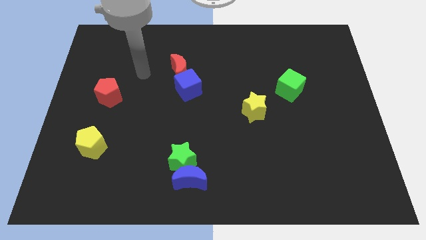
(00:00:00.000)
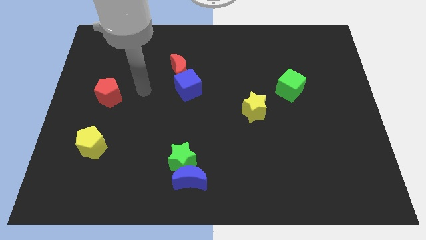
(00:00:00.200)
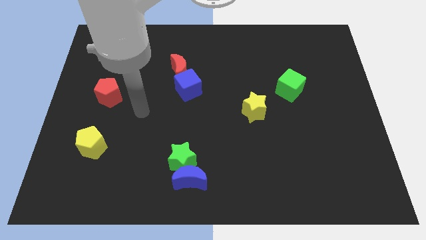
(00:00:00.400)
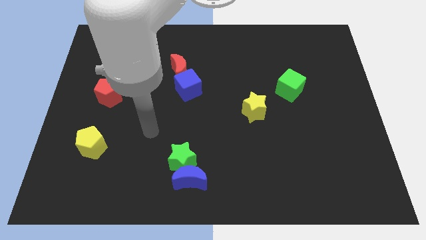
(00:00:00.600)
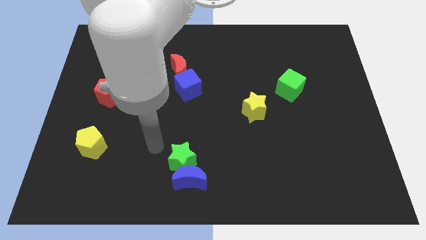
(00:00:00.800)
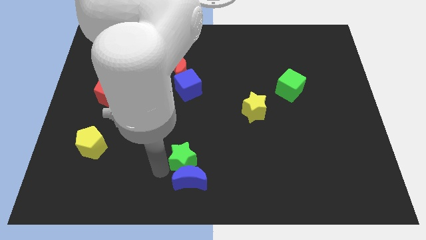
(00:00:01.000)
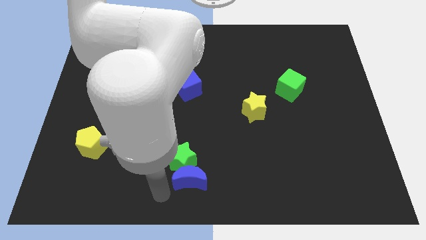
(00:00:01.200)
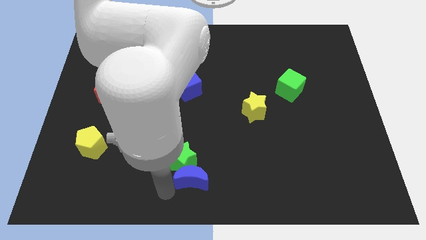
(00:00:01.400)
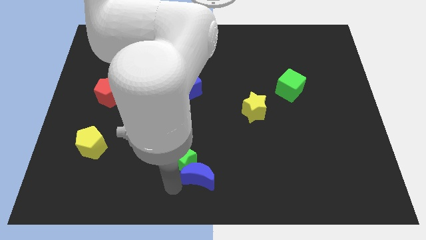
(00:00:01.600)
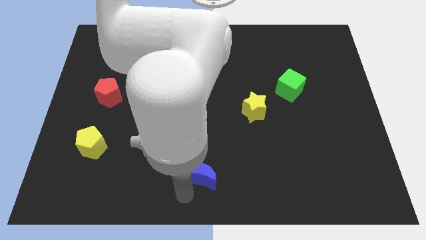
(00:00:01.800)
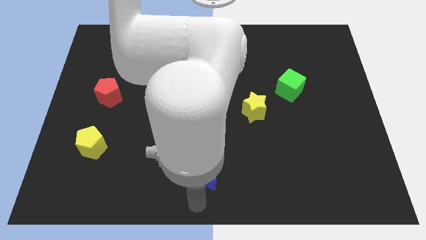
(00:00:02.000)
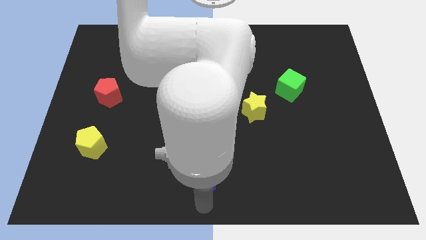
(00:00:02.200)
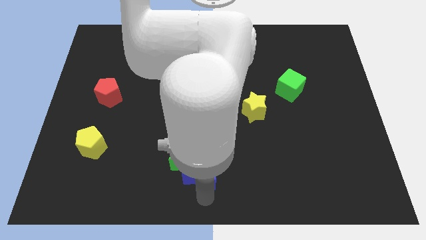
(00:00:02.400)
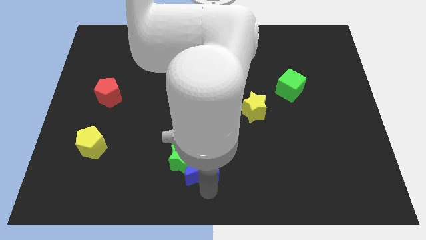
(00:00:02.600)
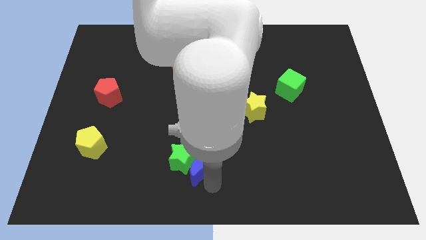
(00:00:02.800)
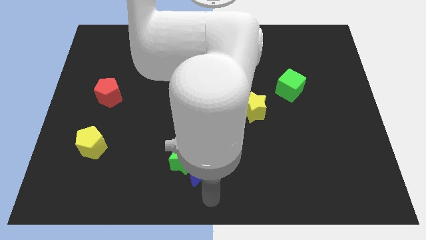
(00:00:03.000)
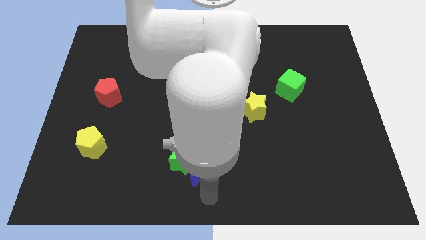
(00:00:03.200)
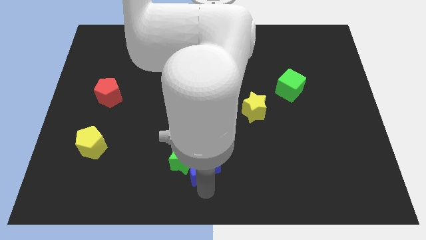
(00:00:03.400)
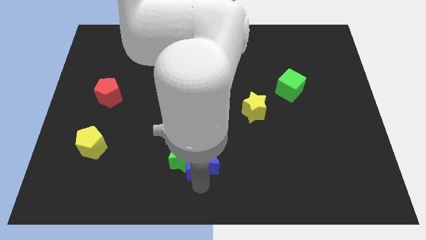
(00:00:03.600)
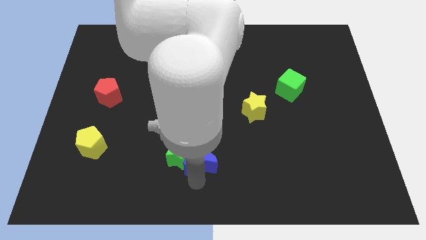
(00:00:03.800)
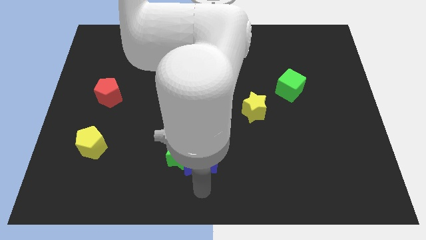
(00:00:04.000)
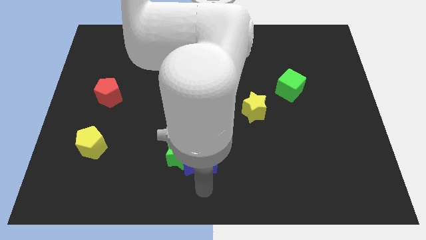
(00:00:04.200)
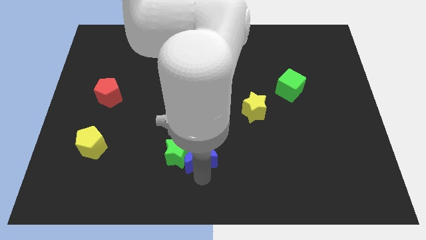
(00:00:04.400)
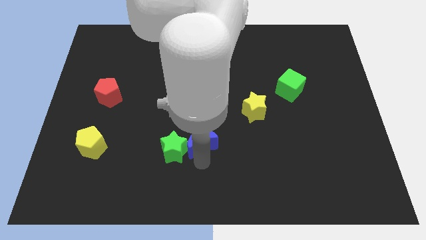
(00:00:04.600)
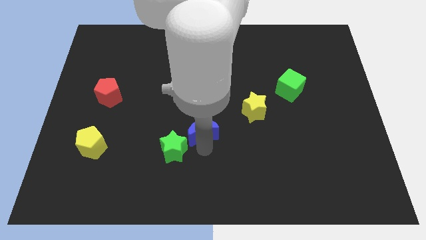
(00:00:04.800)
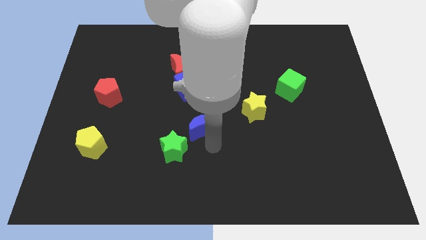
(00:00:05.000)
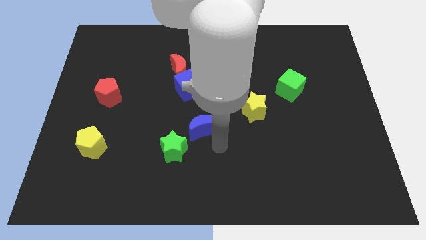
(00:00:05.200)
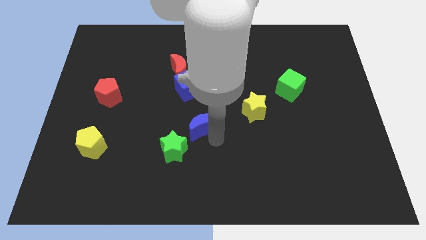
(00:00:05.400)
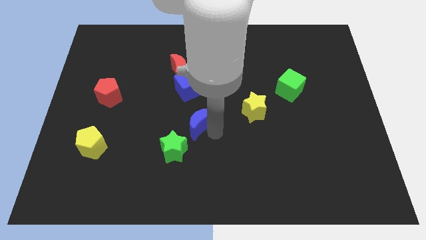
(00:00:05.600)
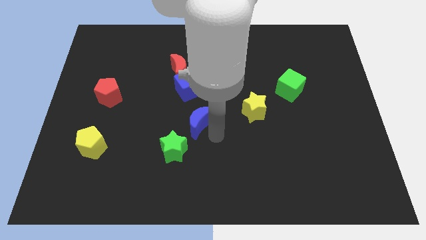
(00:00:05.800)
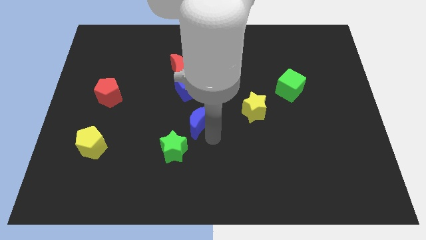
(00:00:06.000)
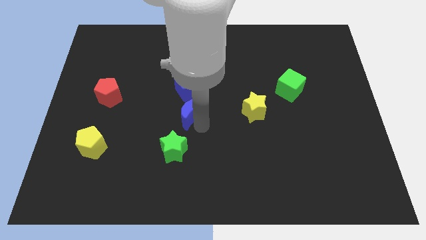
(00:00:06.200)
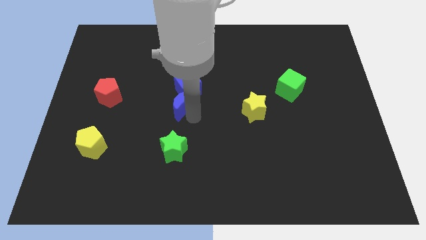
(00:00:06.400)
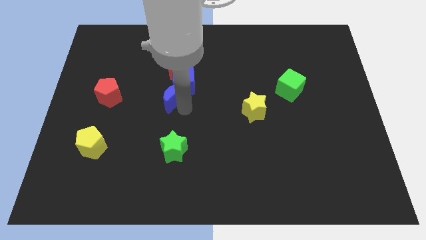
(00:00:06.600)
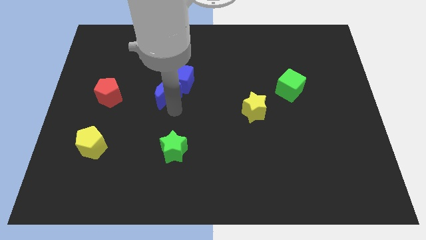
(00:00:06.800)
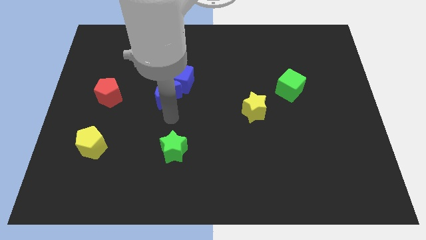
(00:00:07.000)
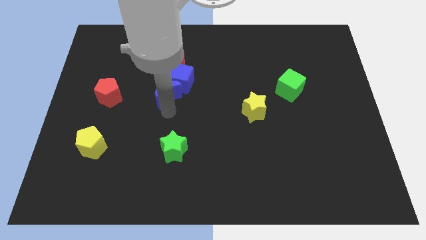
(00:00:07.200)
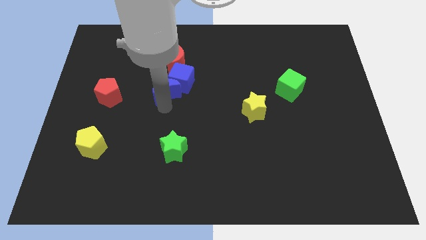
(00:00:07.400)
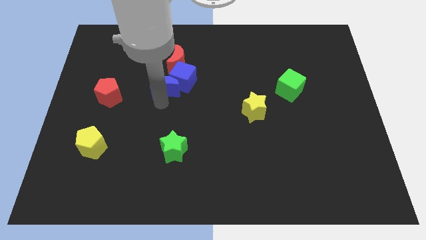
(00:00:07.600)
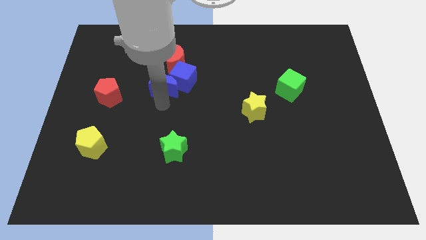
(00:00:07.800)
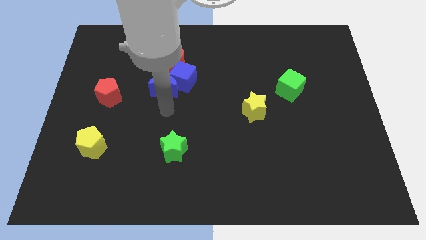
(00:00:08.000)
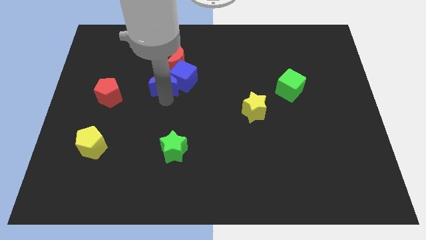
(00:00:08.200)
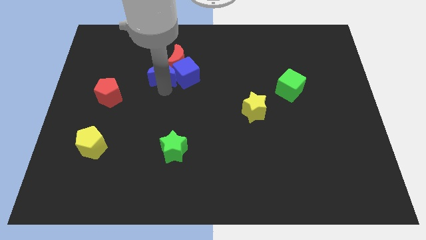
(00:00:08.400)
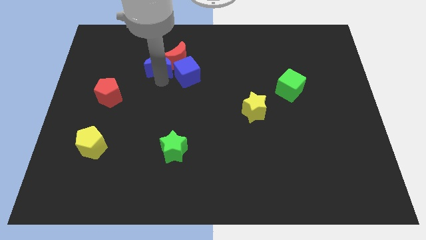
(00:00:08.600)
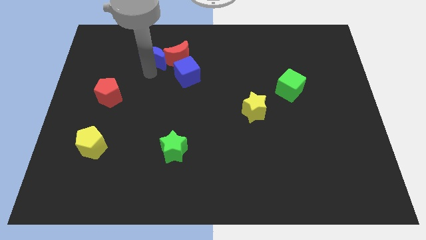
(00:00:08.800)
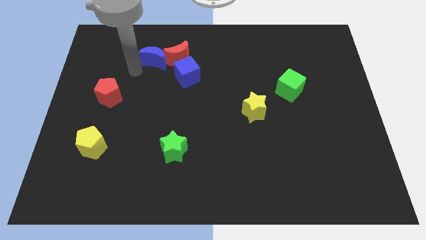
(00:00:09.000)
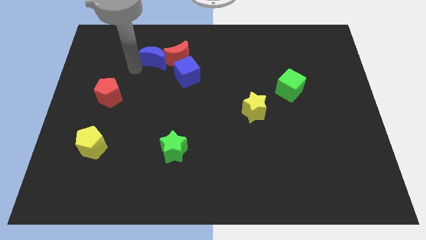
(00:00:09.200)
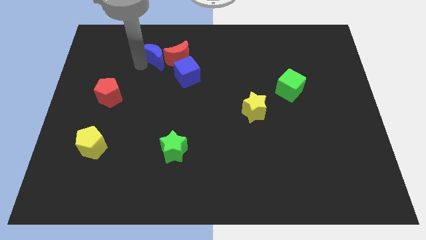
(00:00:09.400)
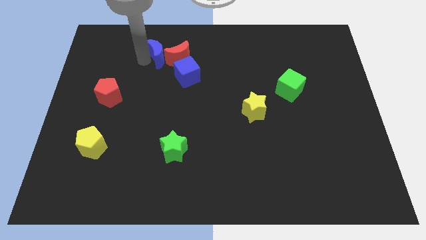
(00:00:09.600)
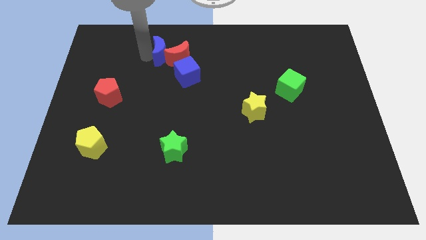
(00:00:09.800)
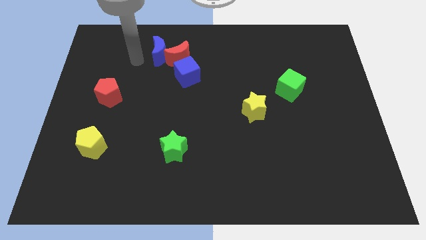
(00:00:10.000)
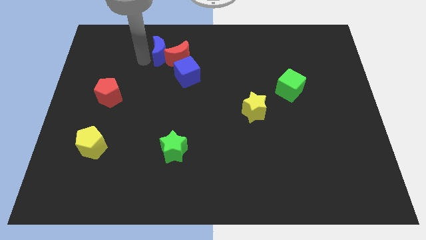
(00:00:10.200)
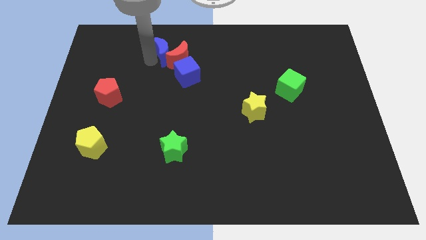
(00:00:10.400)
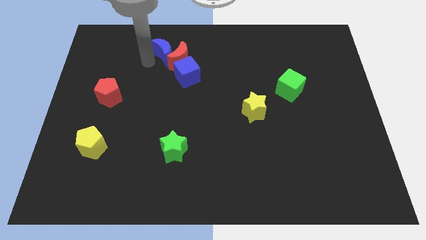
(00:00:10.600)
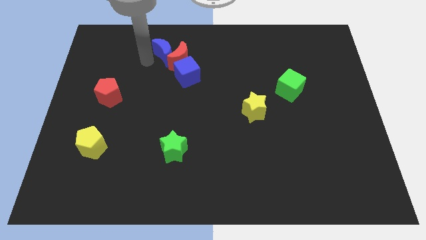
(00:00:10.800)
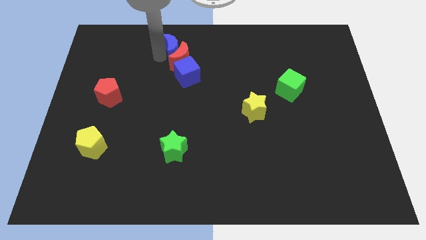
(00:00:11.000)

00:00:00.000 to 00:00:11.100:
put the blue moon to the top side of the blue cube

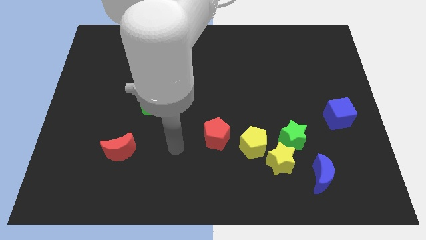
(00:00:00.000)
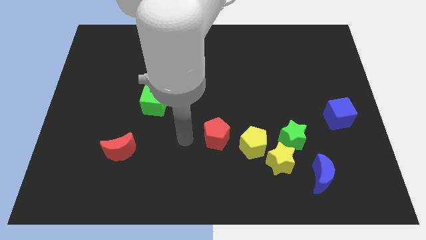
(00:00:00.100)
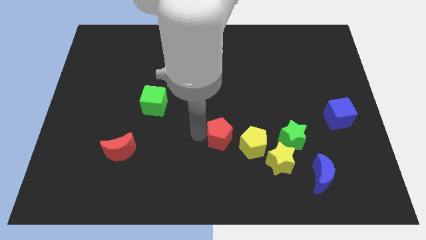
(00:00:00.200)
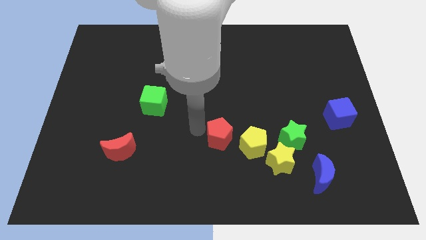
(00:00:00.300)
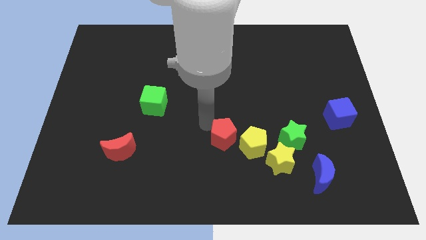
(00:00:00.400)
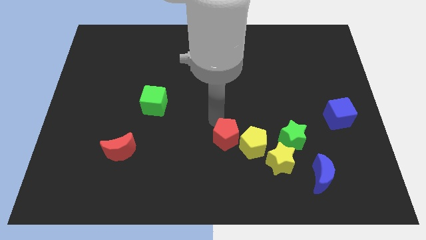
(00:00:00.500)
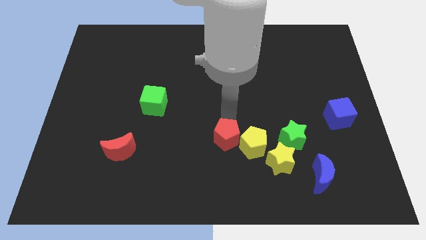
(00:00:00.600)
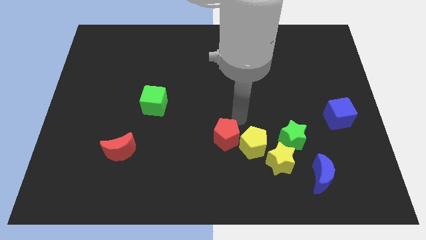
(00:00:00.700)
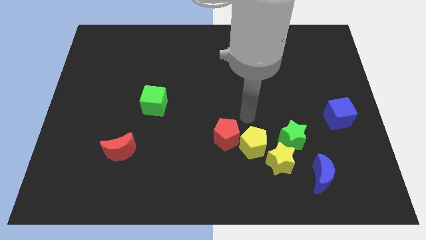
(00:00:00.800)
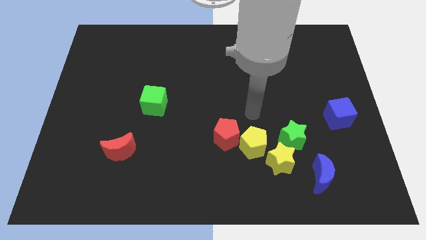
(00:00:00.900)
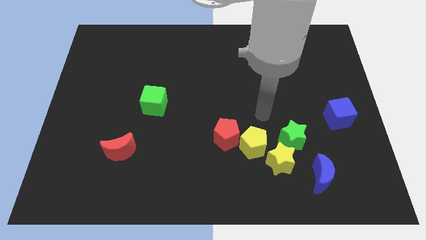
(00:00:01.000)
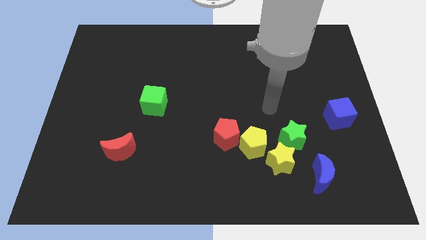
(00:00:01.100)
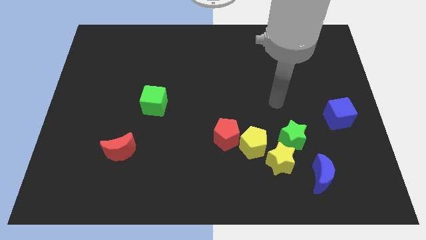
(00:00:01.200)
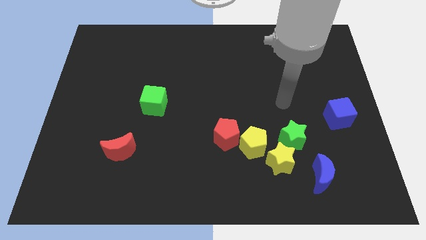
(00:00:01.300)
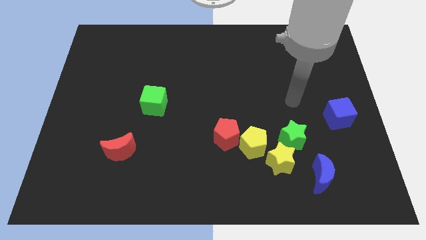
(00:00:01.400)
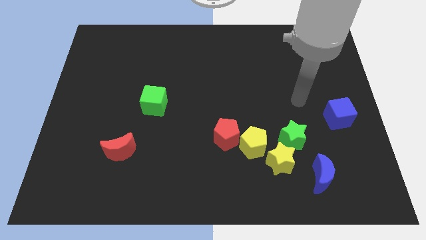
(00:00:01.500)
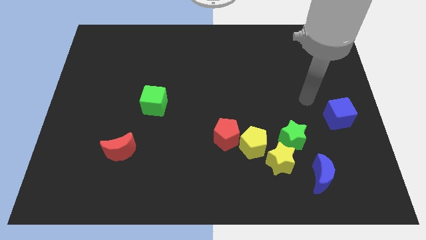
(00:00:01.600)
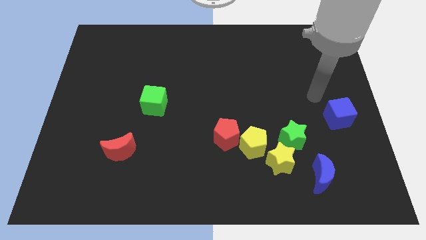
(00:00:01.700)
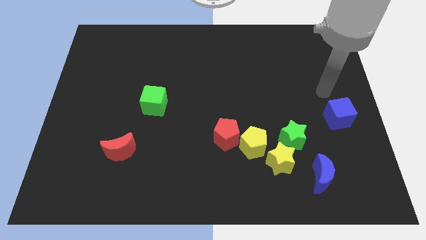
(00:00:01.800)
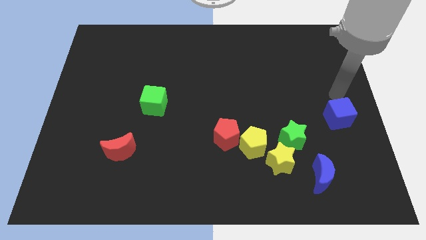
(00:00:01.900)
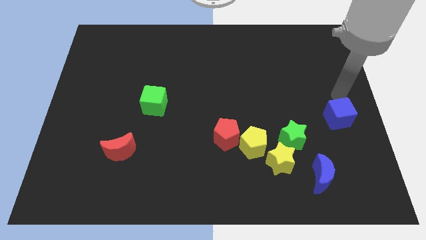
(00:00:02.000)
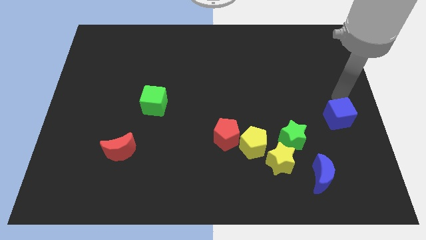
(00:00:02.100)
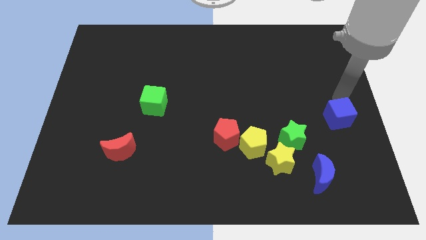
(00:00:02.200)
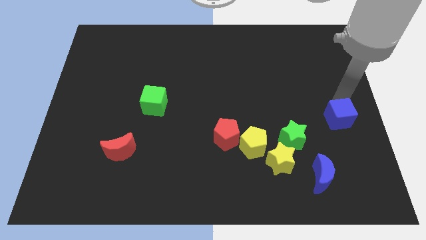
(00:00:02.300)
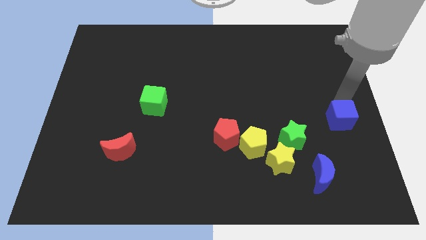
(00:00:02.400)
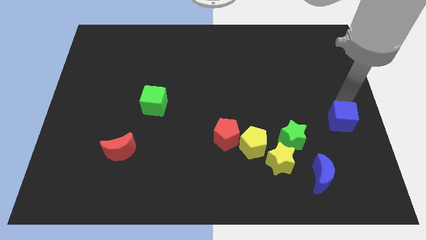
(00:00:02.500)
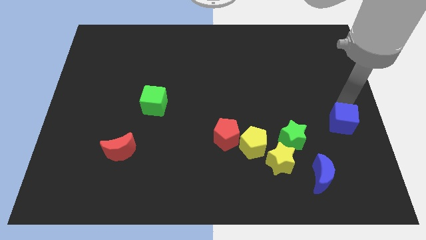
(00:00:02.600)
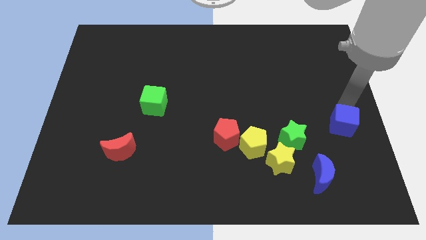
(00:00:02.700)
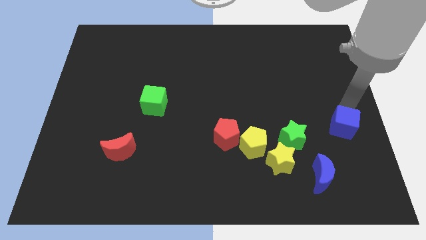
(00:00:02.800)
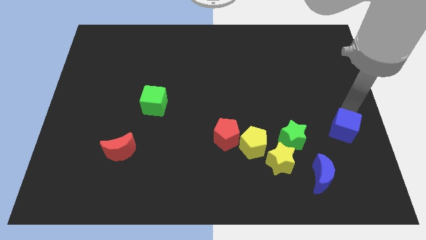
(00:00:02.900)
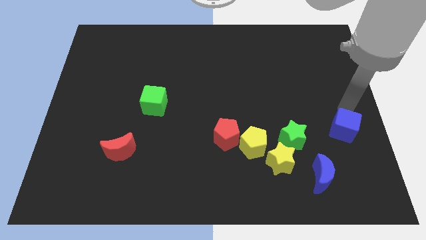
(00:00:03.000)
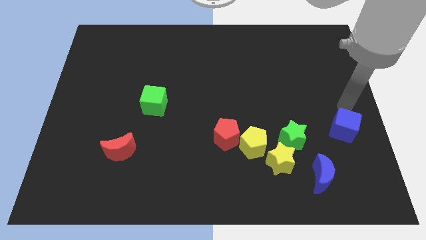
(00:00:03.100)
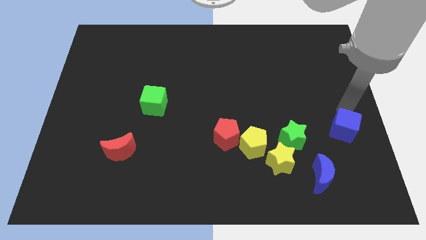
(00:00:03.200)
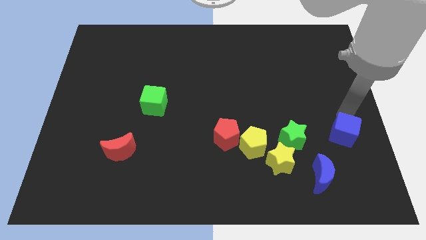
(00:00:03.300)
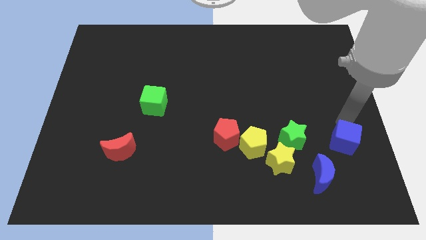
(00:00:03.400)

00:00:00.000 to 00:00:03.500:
slide the blue cube diagonally up and to the right of the blue moon
